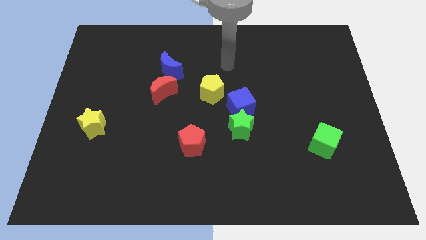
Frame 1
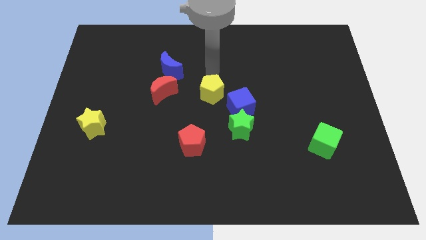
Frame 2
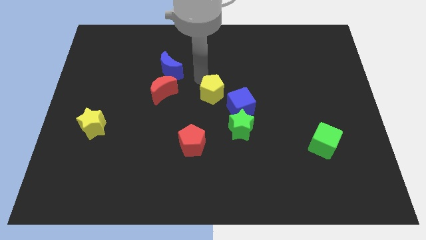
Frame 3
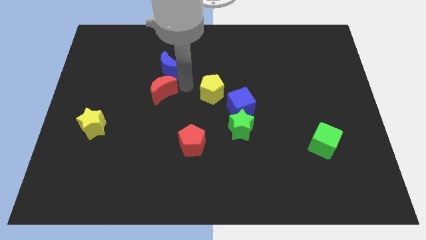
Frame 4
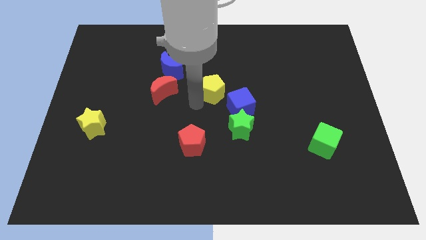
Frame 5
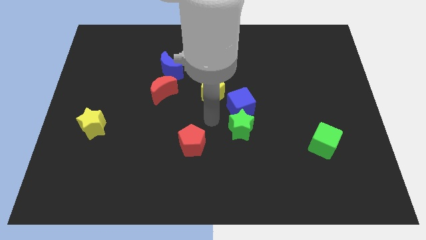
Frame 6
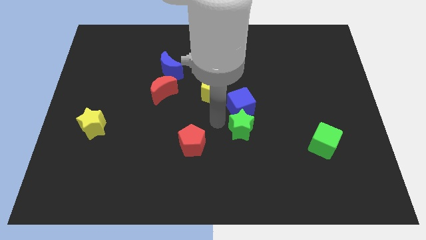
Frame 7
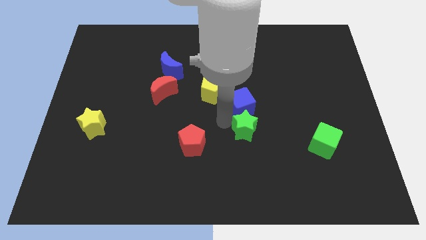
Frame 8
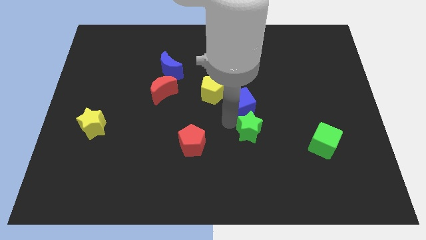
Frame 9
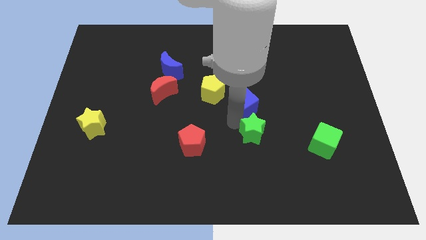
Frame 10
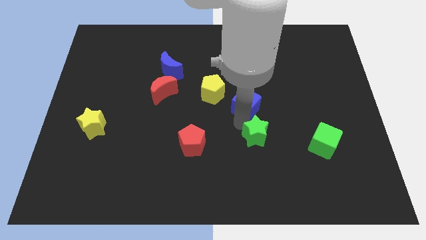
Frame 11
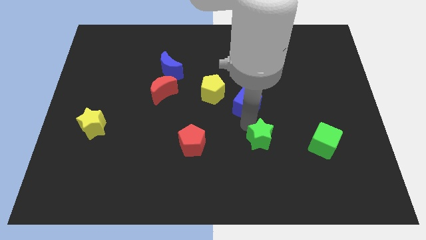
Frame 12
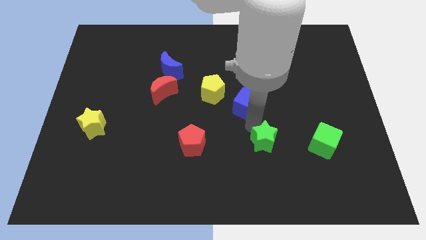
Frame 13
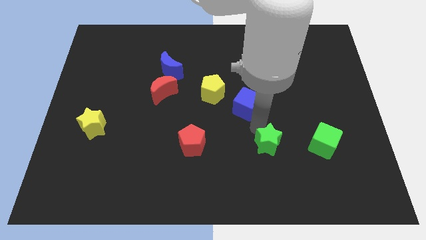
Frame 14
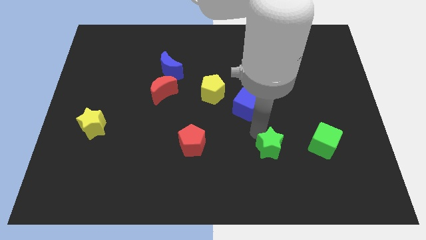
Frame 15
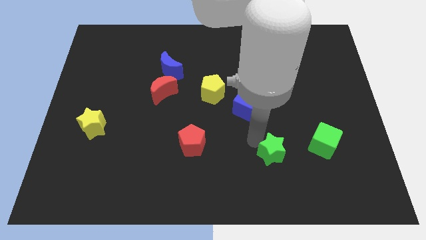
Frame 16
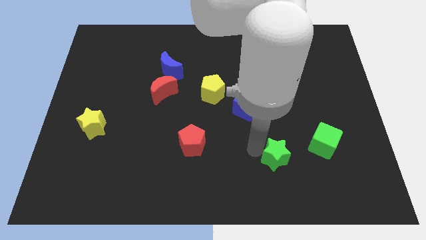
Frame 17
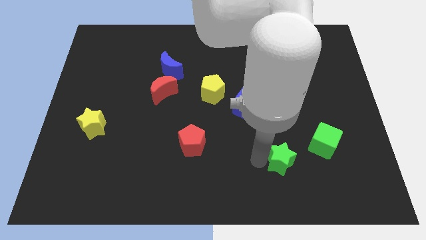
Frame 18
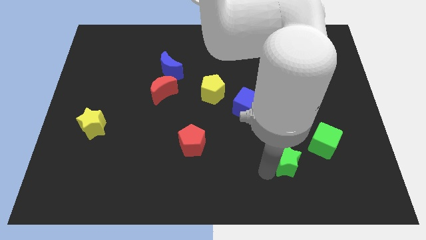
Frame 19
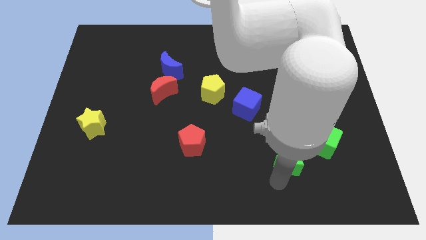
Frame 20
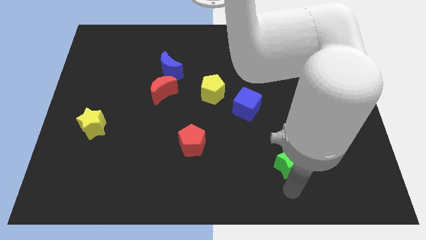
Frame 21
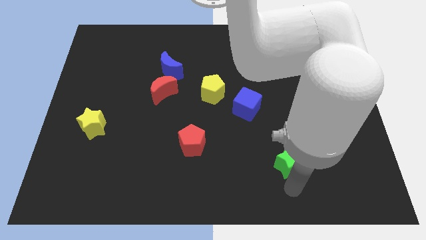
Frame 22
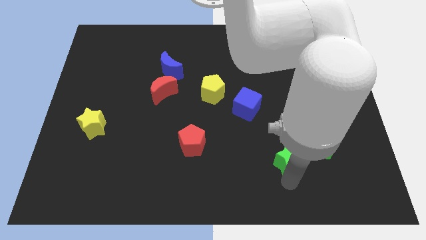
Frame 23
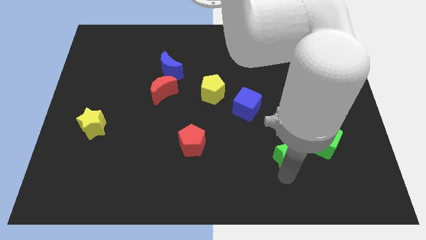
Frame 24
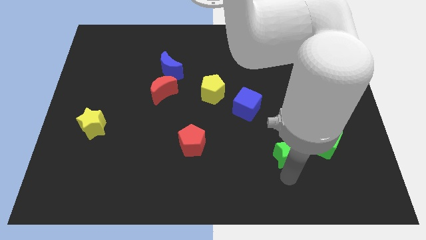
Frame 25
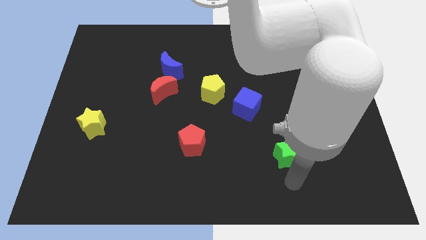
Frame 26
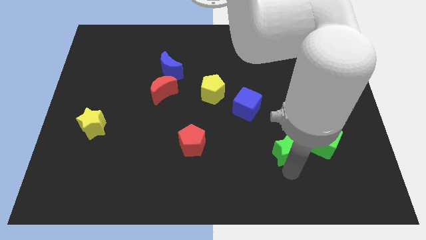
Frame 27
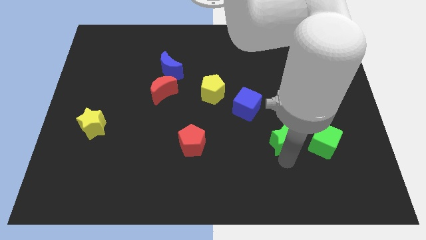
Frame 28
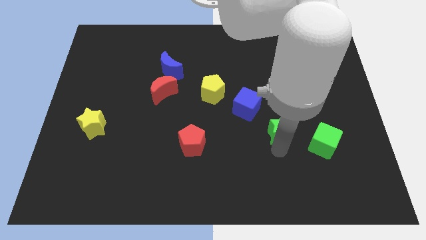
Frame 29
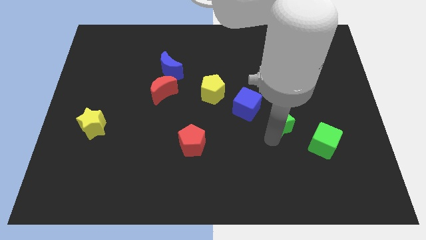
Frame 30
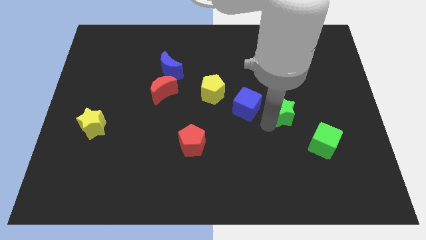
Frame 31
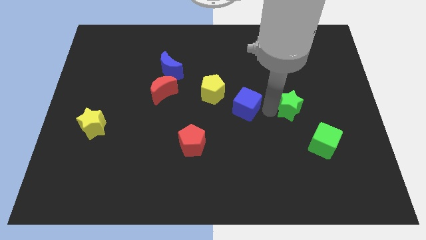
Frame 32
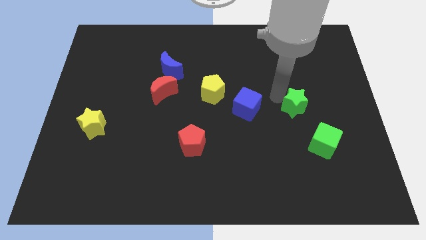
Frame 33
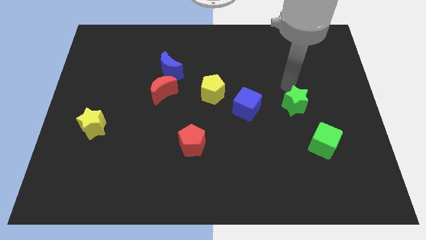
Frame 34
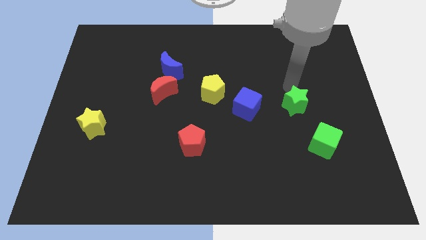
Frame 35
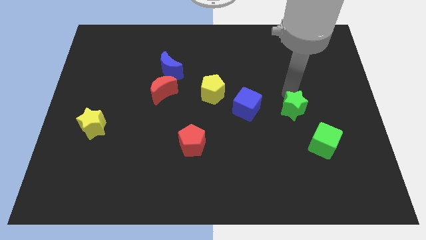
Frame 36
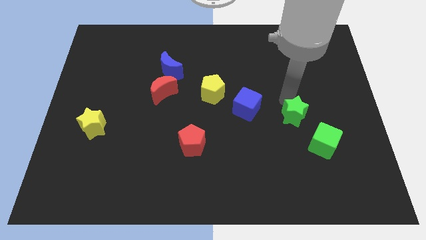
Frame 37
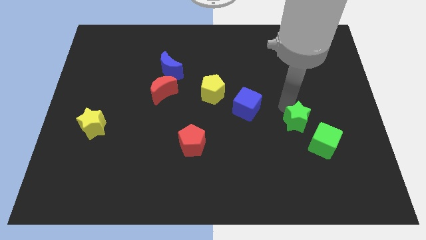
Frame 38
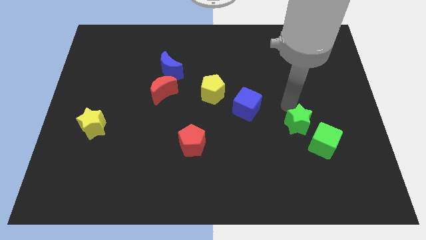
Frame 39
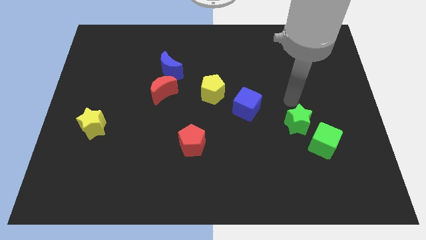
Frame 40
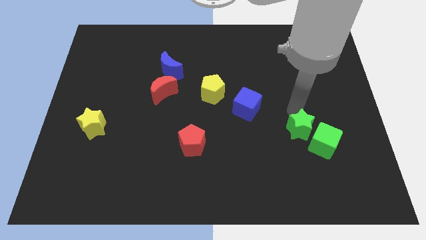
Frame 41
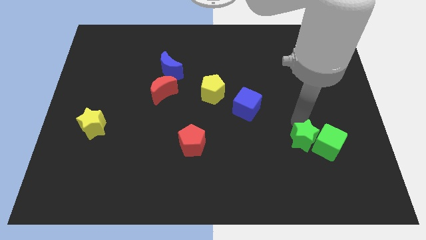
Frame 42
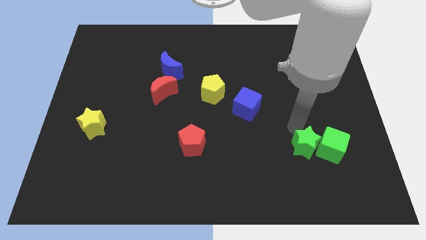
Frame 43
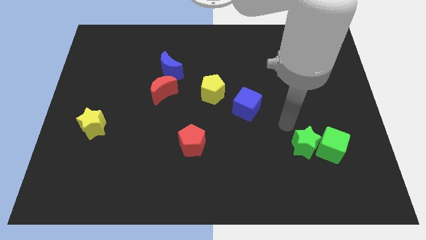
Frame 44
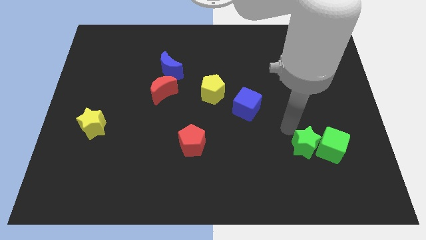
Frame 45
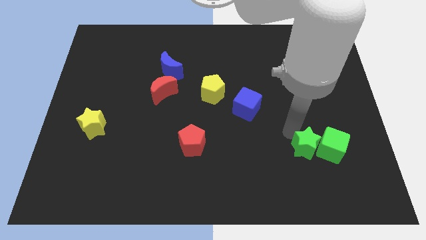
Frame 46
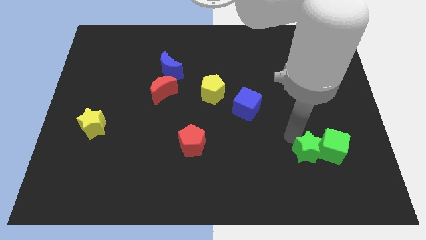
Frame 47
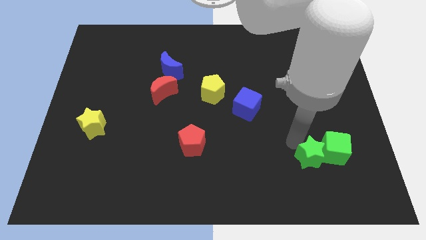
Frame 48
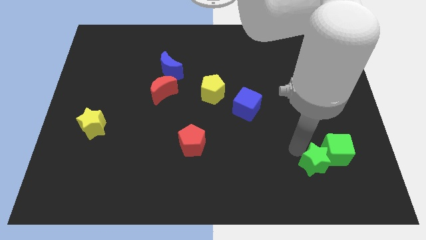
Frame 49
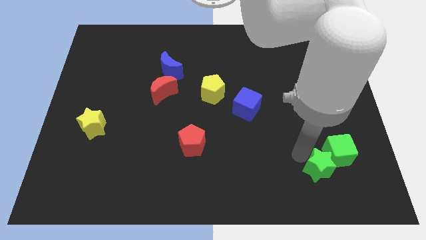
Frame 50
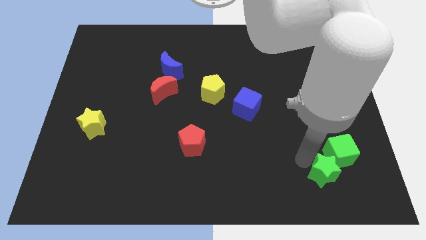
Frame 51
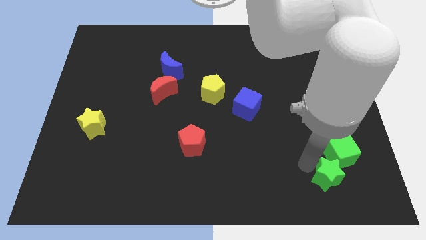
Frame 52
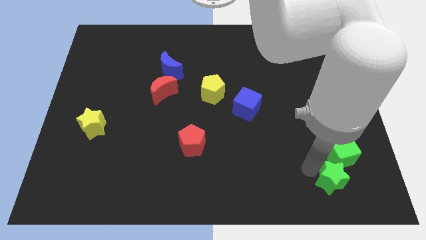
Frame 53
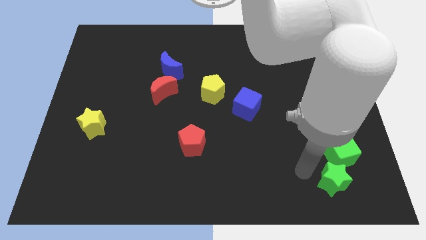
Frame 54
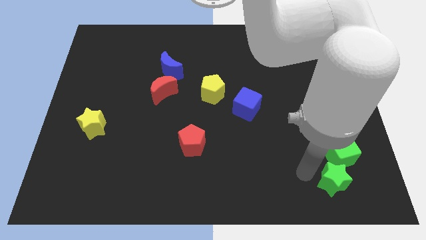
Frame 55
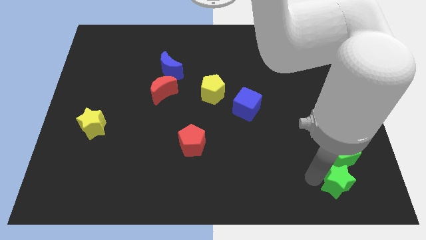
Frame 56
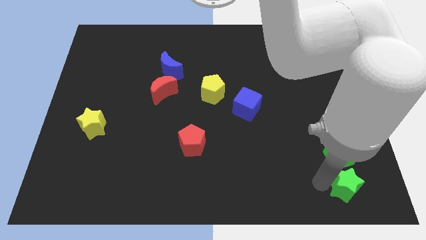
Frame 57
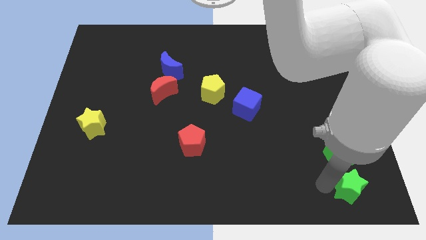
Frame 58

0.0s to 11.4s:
push the green star to the bottom right
